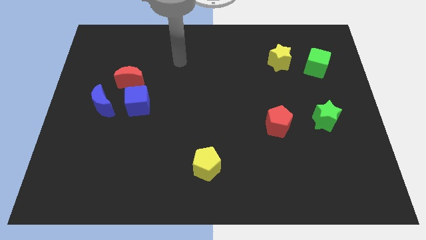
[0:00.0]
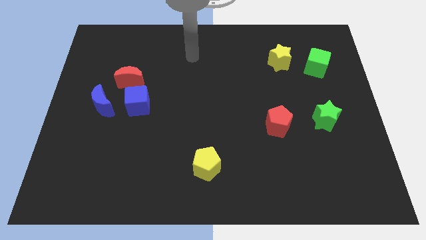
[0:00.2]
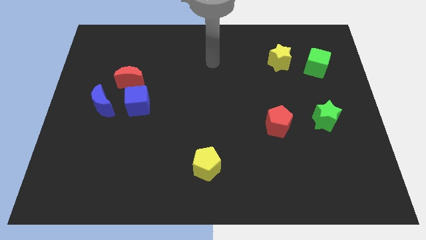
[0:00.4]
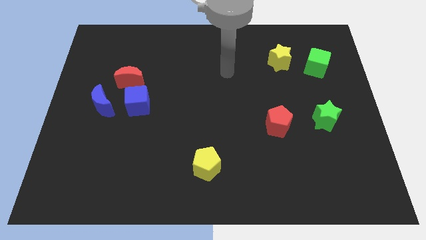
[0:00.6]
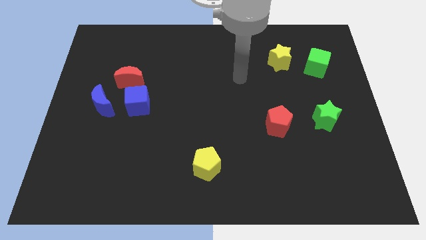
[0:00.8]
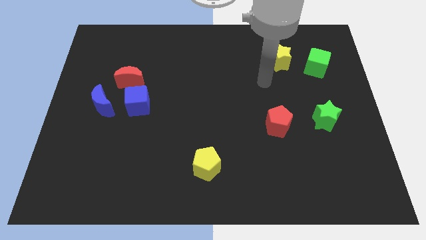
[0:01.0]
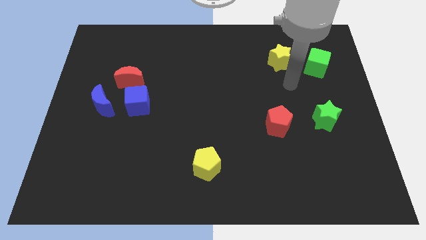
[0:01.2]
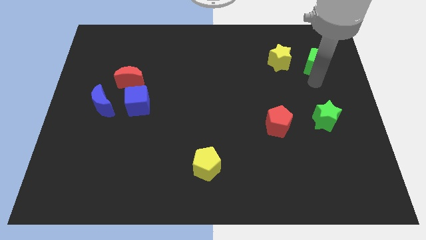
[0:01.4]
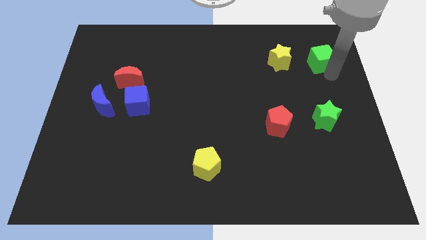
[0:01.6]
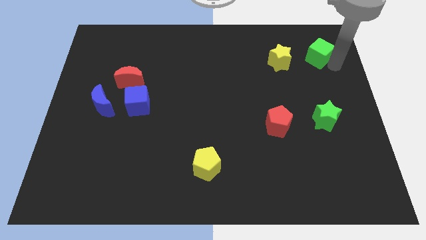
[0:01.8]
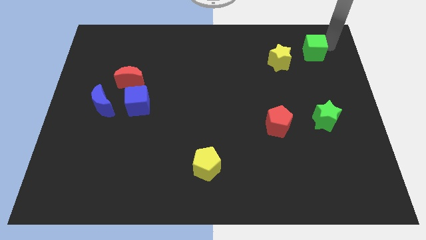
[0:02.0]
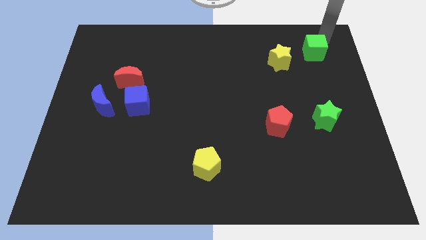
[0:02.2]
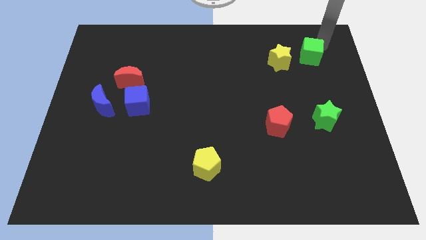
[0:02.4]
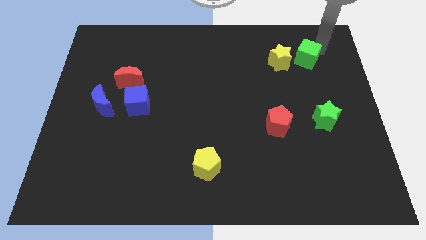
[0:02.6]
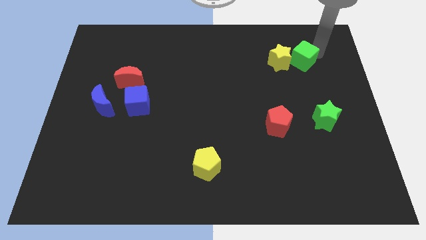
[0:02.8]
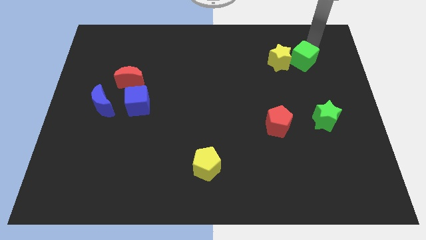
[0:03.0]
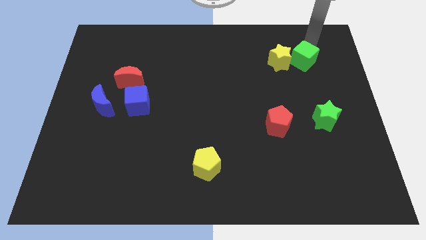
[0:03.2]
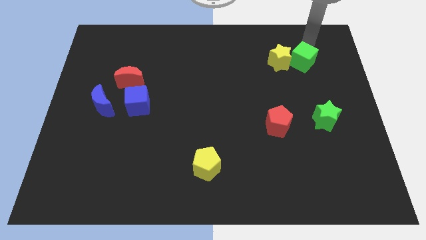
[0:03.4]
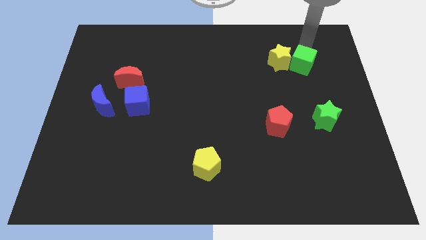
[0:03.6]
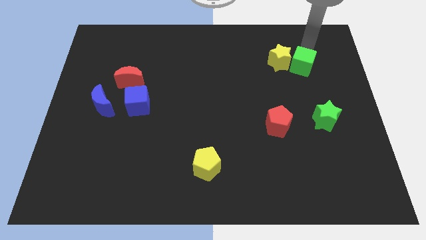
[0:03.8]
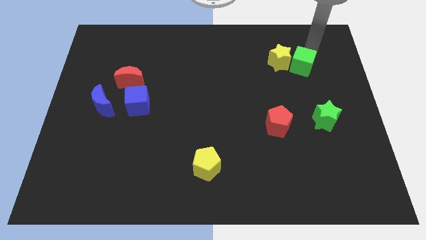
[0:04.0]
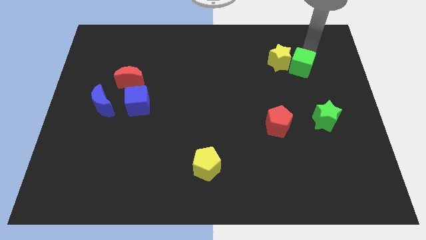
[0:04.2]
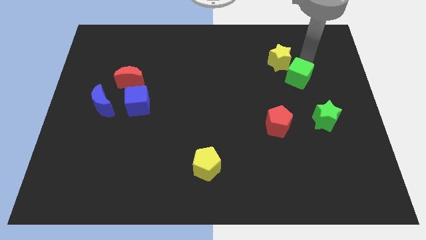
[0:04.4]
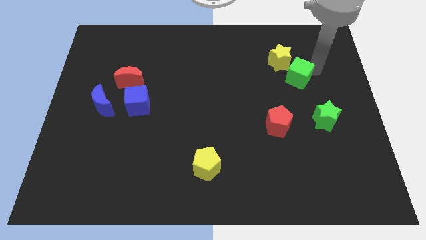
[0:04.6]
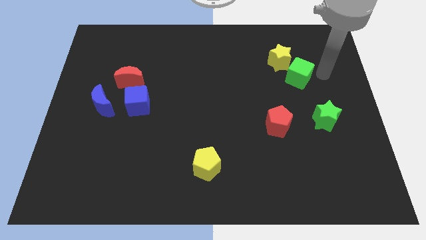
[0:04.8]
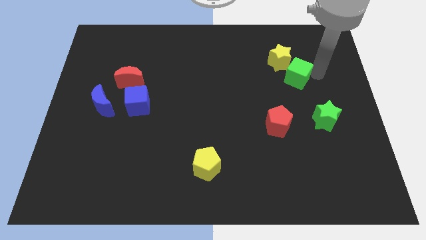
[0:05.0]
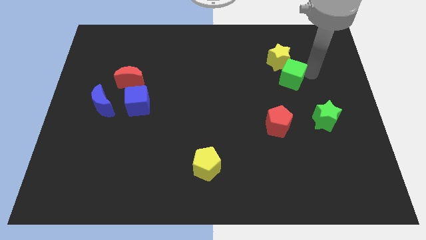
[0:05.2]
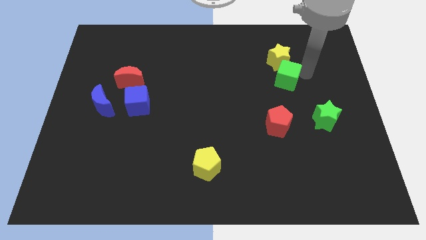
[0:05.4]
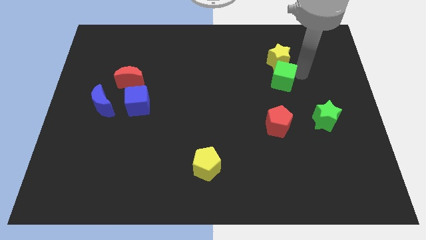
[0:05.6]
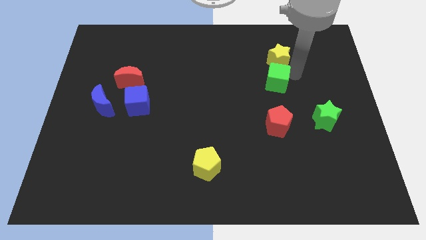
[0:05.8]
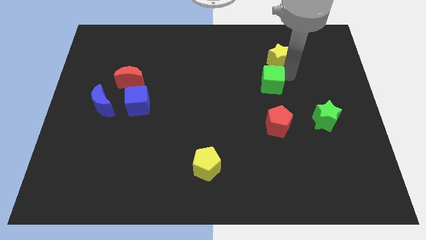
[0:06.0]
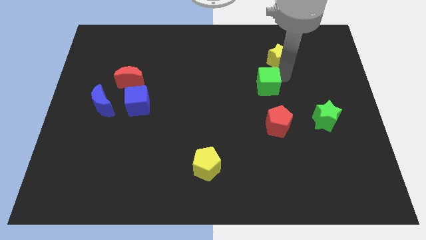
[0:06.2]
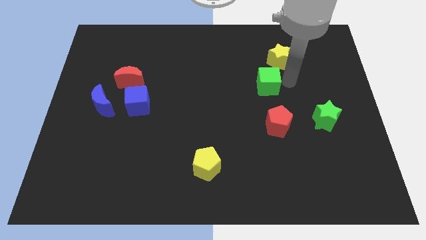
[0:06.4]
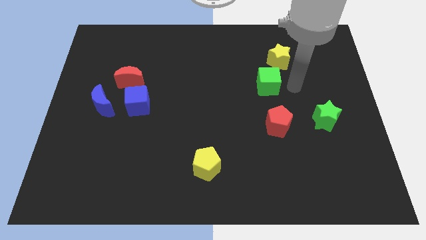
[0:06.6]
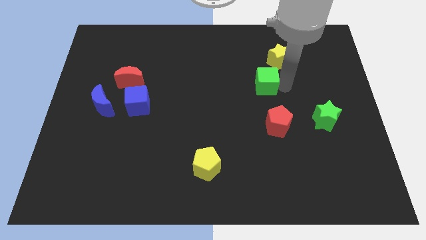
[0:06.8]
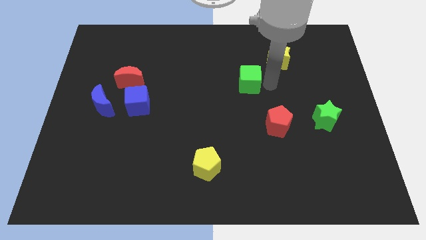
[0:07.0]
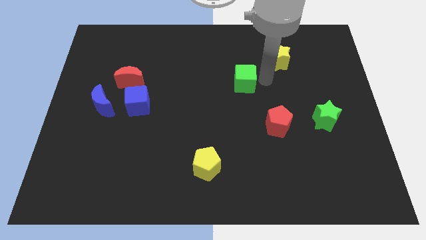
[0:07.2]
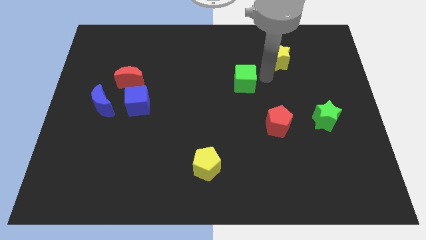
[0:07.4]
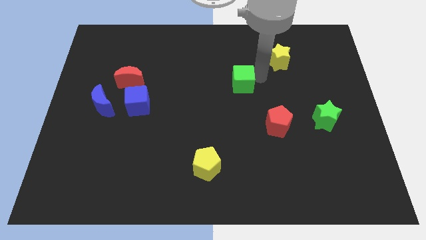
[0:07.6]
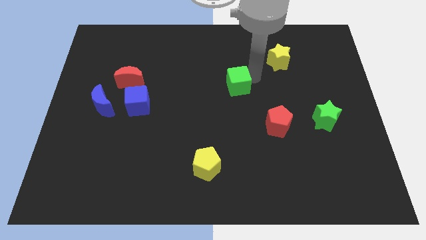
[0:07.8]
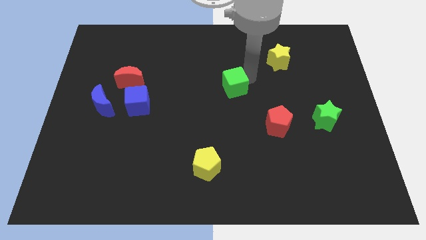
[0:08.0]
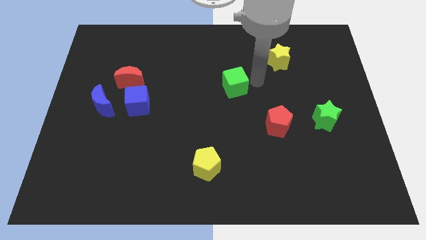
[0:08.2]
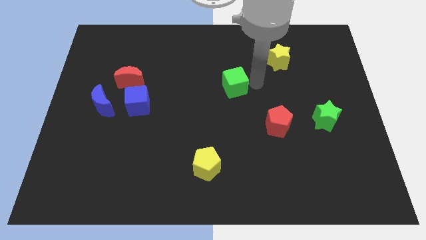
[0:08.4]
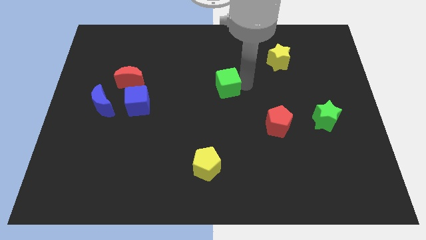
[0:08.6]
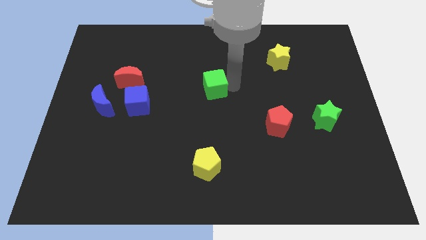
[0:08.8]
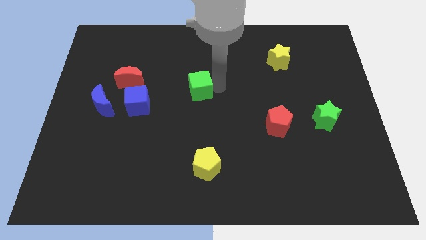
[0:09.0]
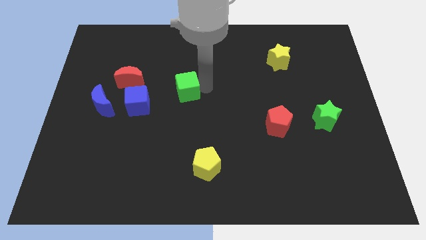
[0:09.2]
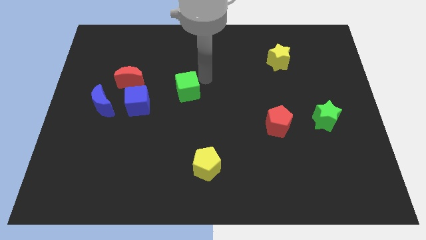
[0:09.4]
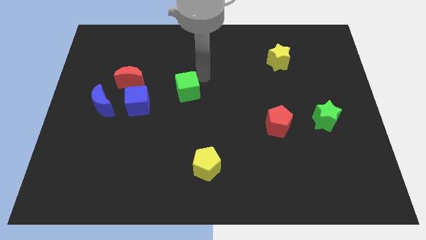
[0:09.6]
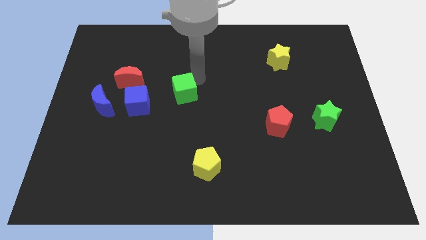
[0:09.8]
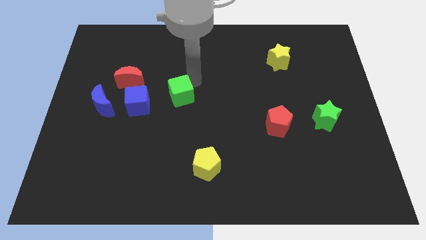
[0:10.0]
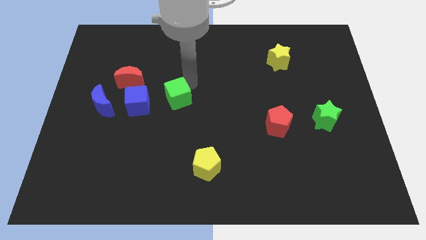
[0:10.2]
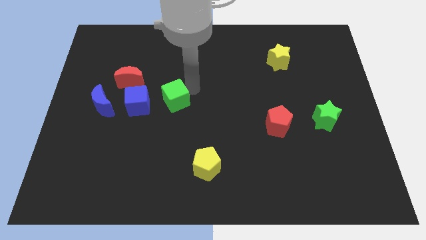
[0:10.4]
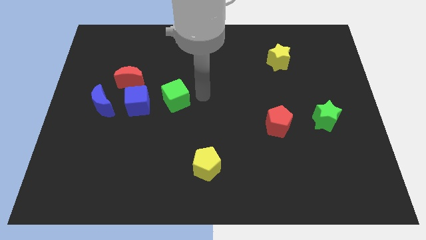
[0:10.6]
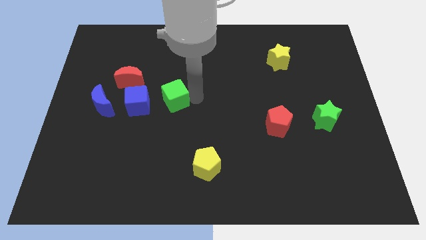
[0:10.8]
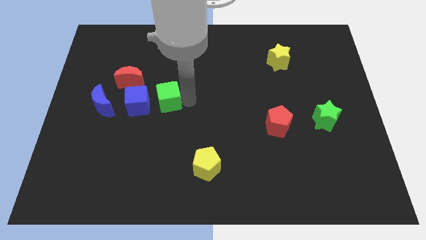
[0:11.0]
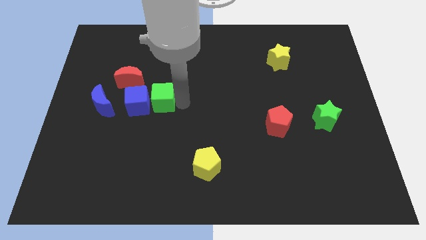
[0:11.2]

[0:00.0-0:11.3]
put the green cube next to the blue cube

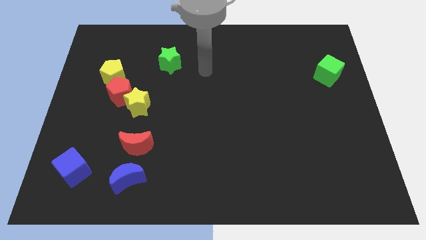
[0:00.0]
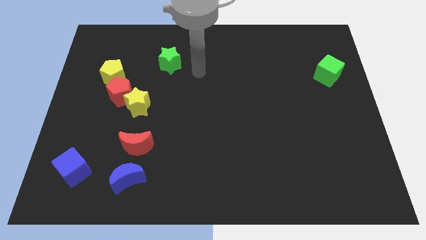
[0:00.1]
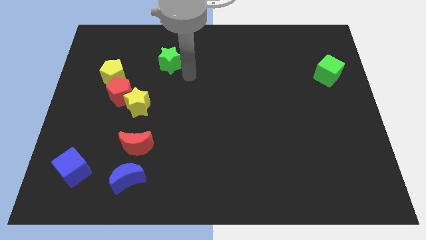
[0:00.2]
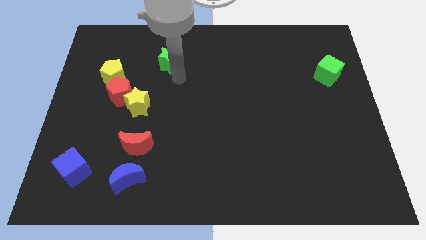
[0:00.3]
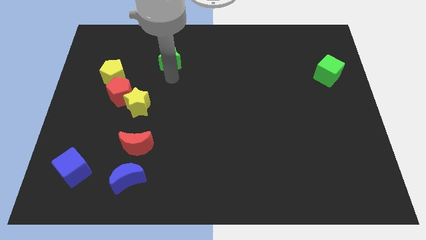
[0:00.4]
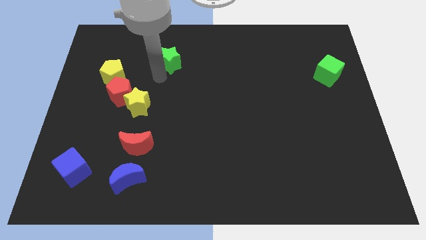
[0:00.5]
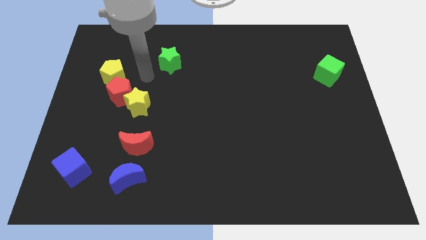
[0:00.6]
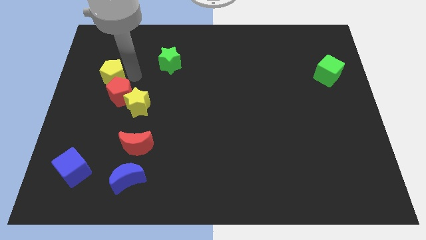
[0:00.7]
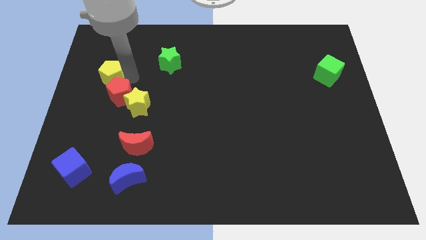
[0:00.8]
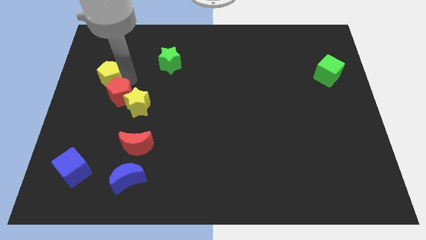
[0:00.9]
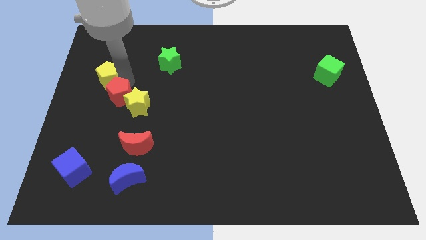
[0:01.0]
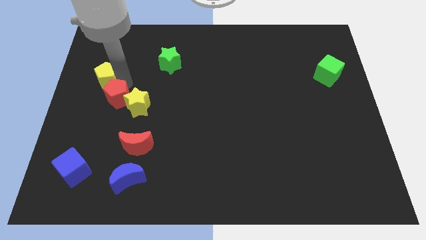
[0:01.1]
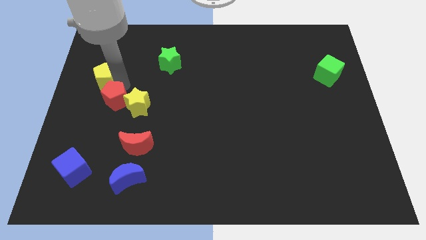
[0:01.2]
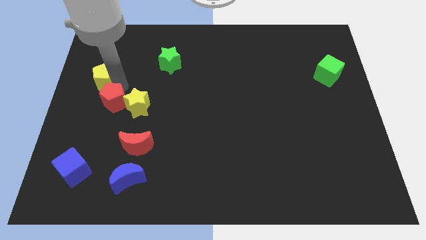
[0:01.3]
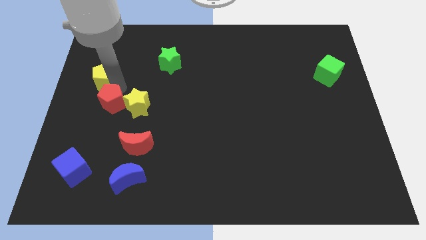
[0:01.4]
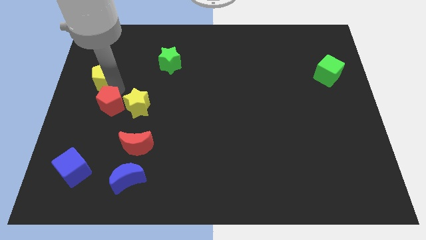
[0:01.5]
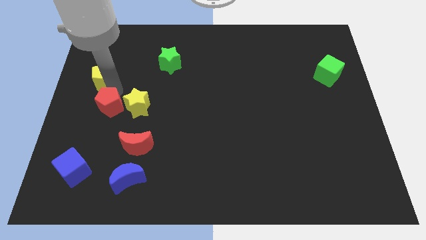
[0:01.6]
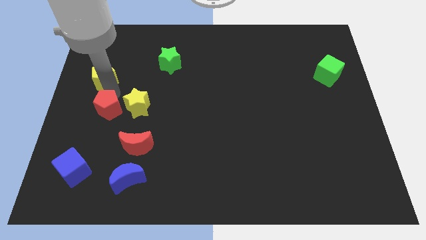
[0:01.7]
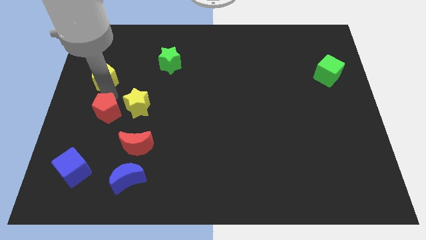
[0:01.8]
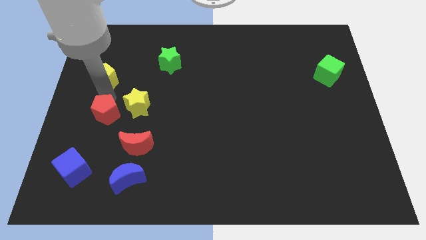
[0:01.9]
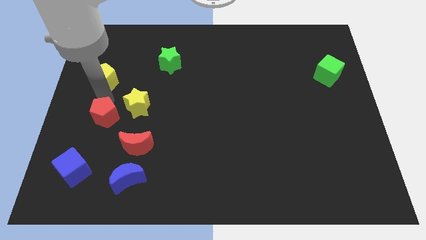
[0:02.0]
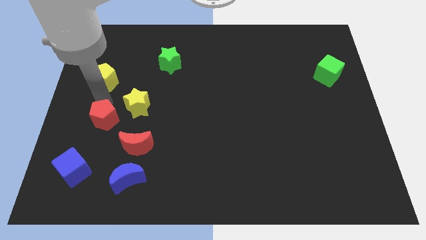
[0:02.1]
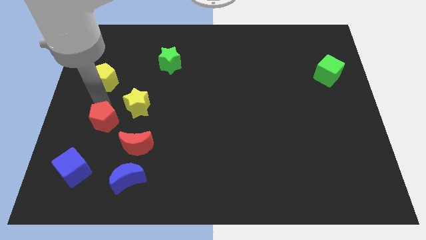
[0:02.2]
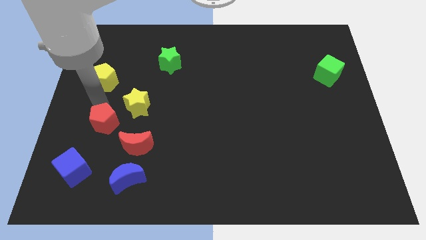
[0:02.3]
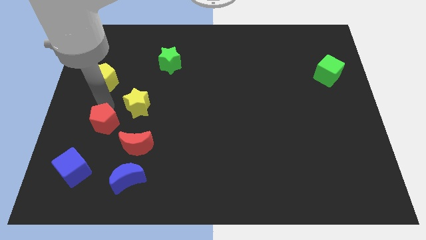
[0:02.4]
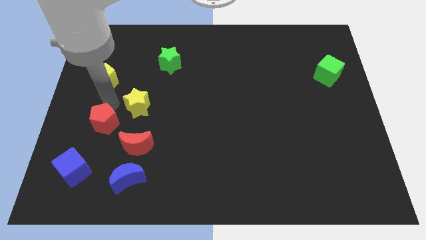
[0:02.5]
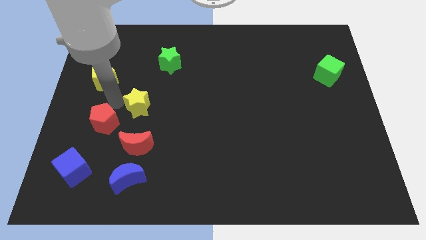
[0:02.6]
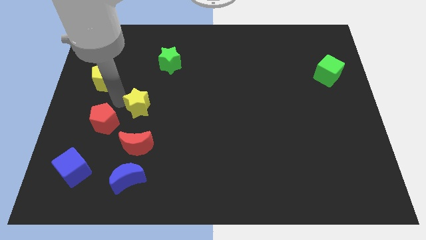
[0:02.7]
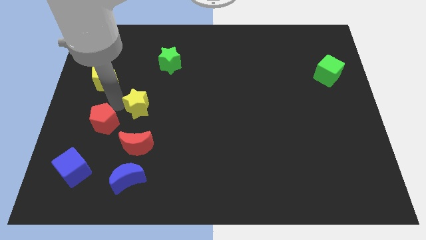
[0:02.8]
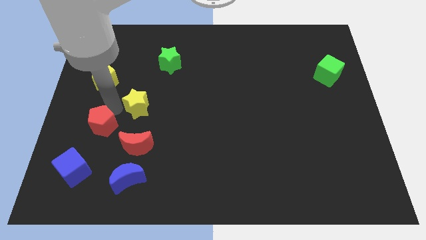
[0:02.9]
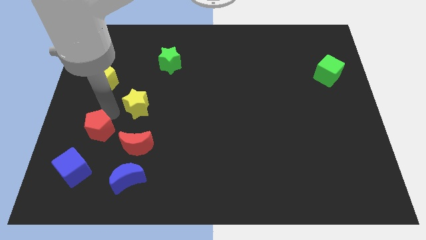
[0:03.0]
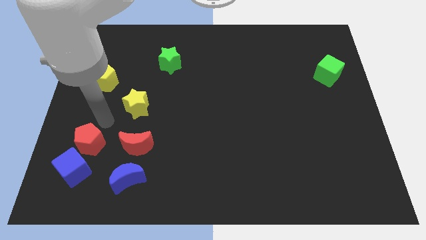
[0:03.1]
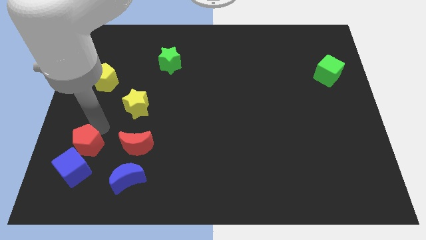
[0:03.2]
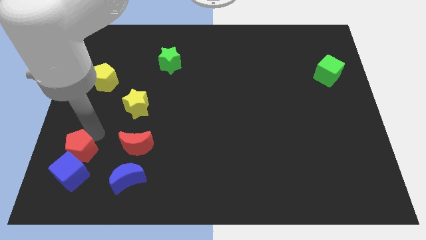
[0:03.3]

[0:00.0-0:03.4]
push the red pentagon towards the blue cube
